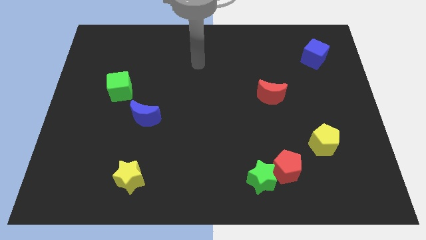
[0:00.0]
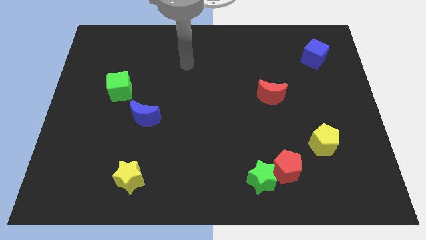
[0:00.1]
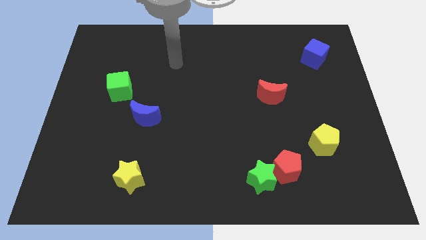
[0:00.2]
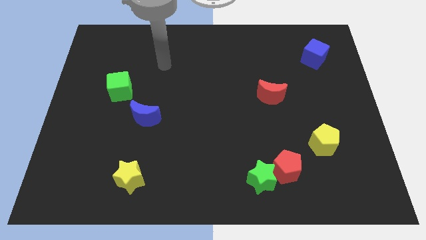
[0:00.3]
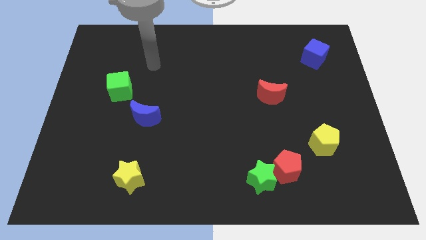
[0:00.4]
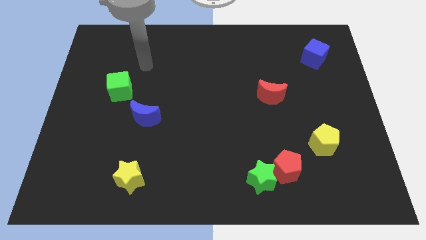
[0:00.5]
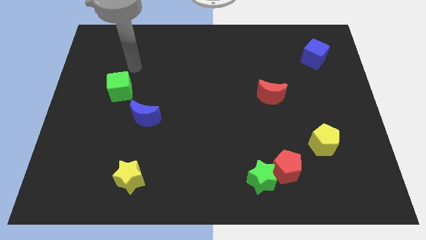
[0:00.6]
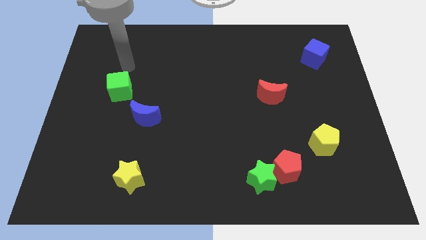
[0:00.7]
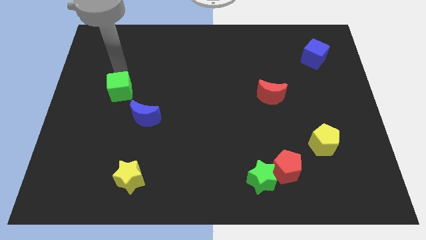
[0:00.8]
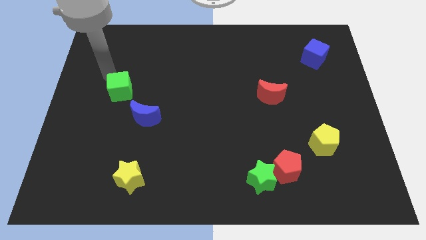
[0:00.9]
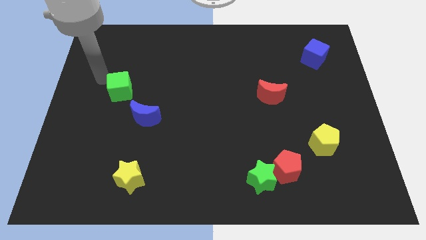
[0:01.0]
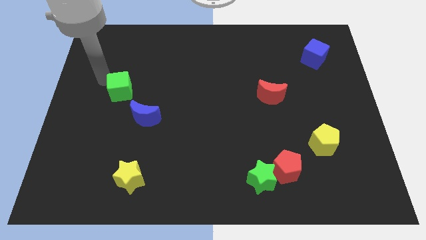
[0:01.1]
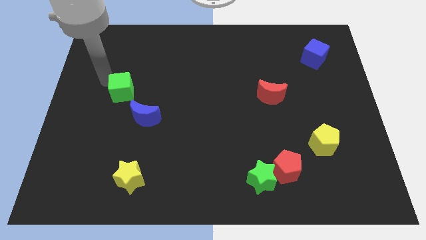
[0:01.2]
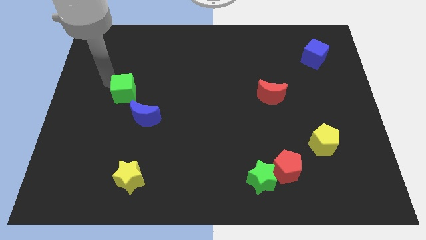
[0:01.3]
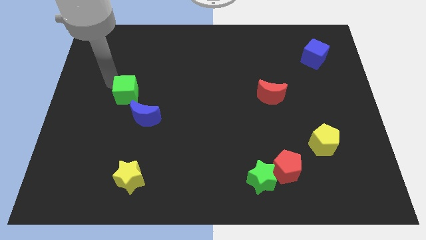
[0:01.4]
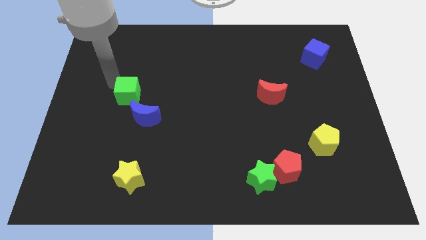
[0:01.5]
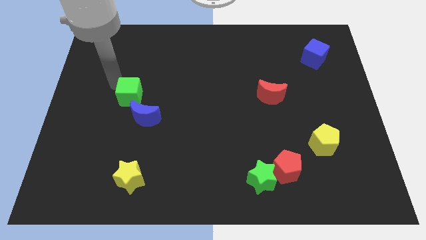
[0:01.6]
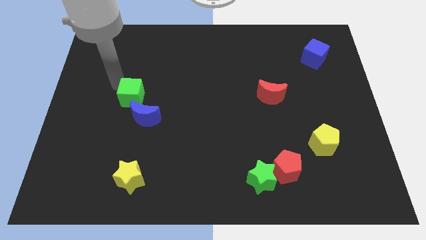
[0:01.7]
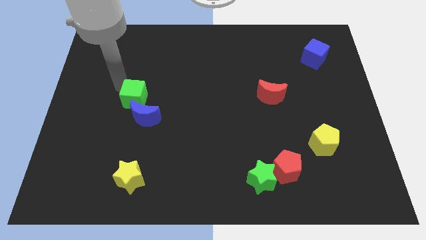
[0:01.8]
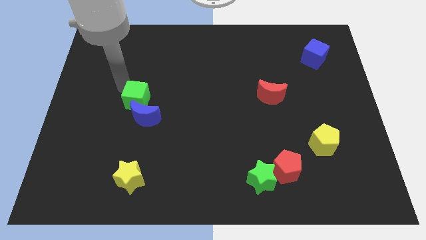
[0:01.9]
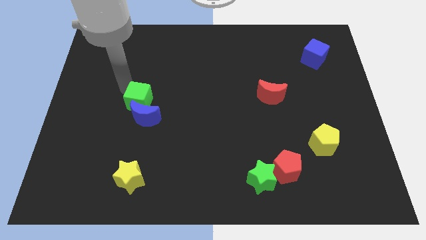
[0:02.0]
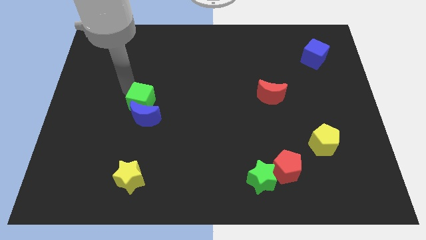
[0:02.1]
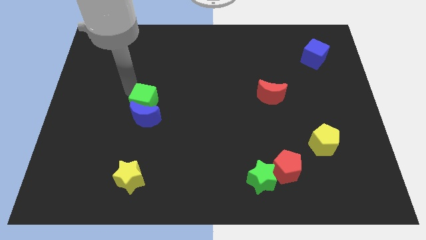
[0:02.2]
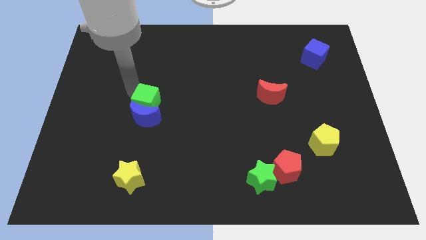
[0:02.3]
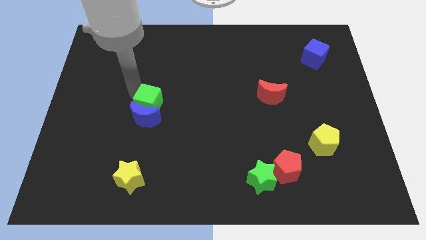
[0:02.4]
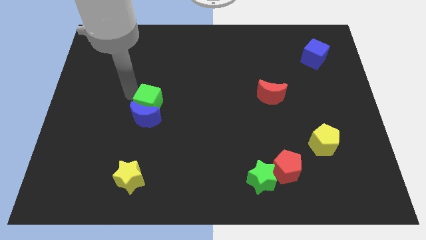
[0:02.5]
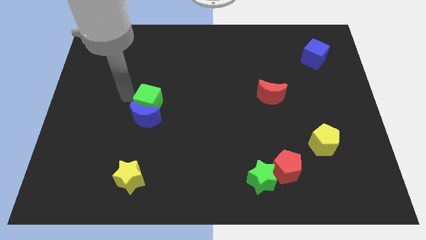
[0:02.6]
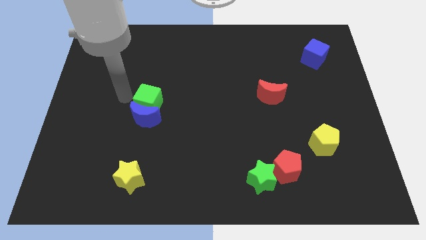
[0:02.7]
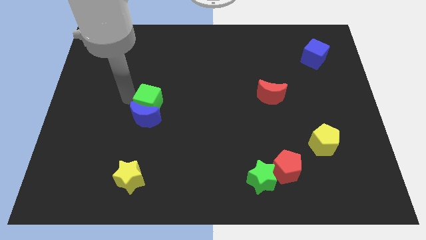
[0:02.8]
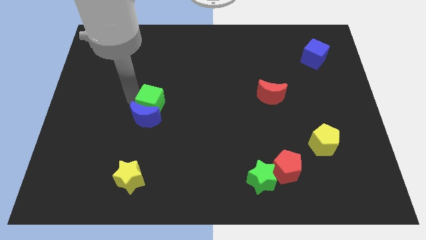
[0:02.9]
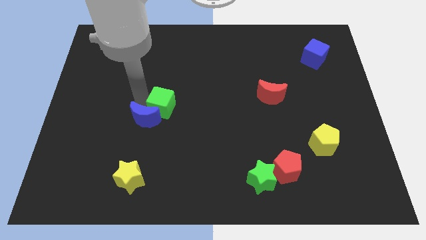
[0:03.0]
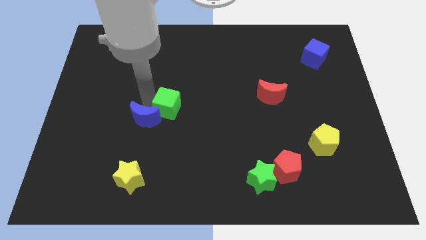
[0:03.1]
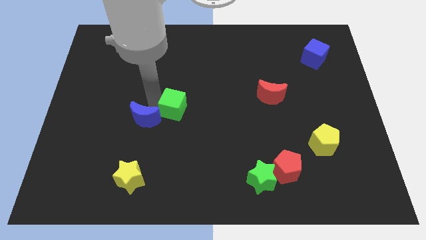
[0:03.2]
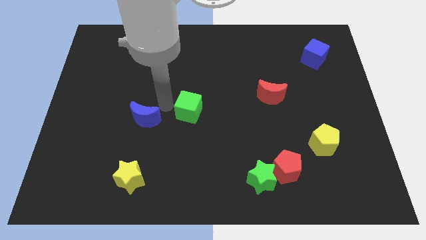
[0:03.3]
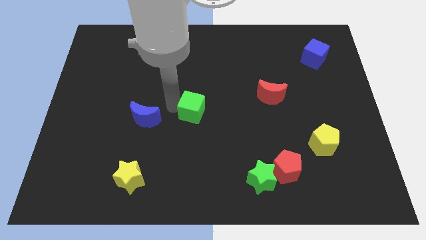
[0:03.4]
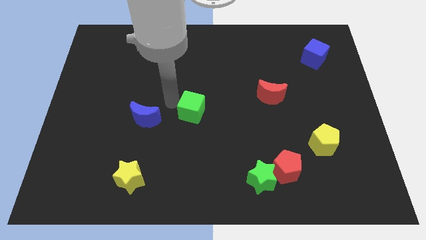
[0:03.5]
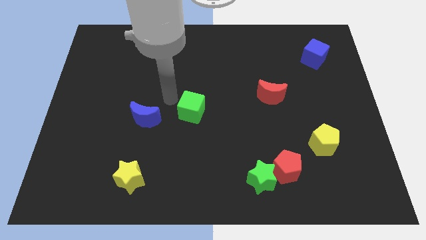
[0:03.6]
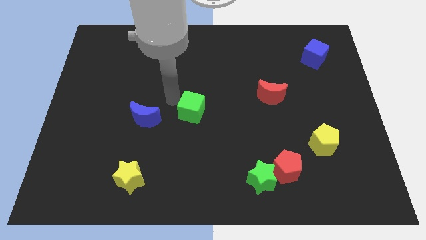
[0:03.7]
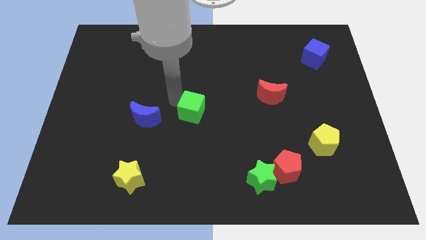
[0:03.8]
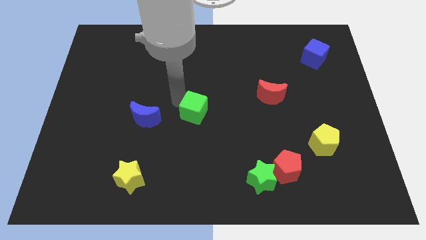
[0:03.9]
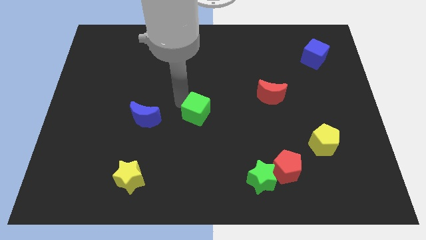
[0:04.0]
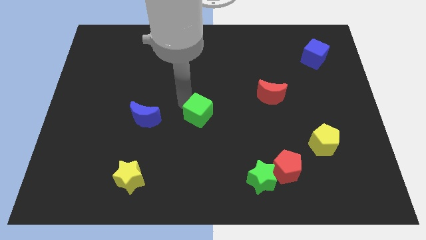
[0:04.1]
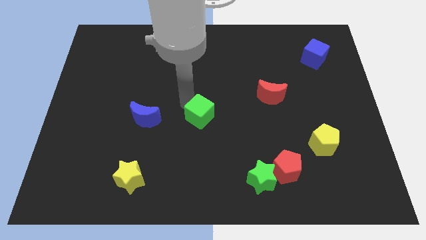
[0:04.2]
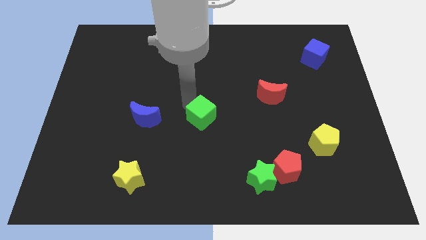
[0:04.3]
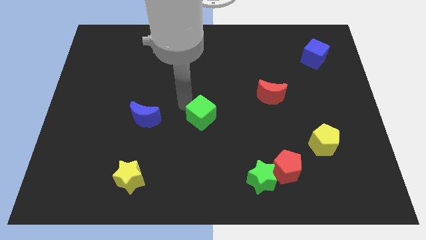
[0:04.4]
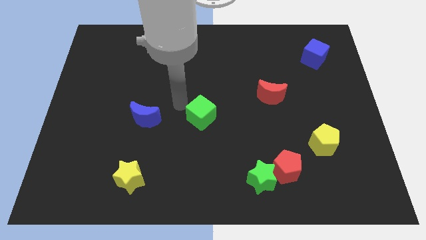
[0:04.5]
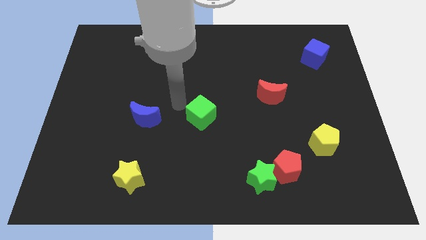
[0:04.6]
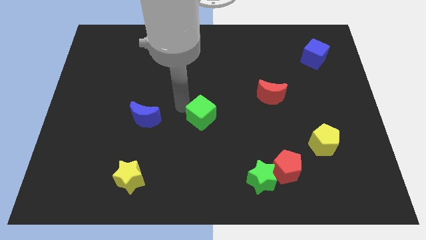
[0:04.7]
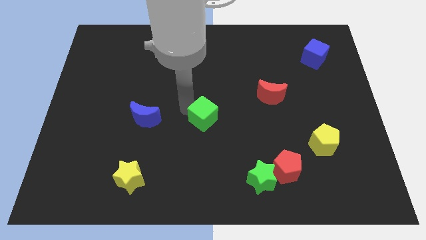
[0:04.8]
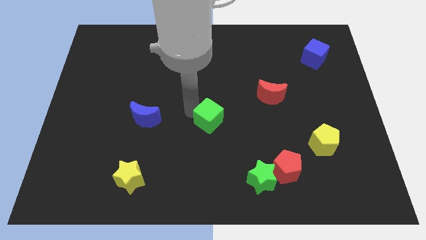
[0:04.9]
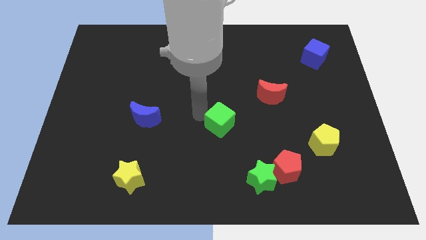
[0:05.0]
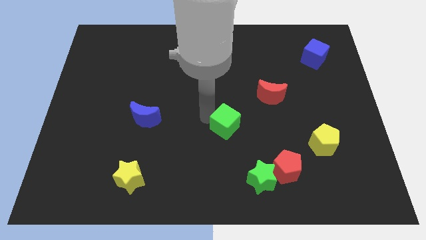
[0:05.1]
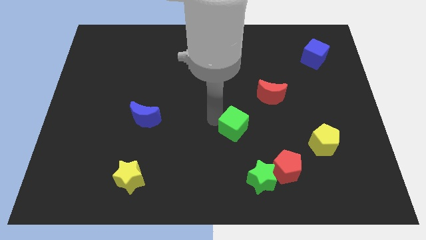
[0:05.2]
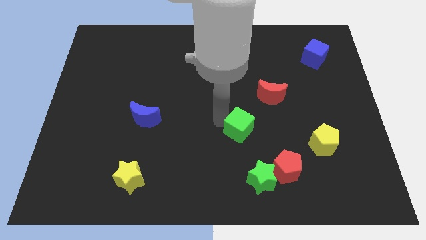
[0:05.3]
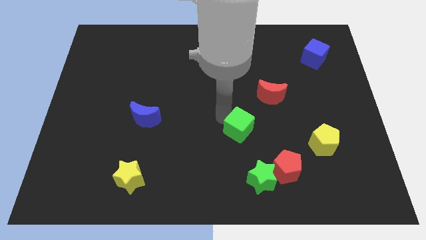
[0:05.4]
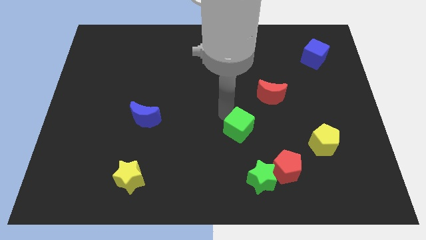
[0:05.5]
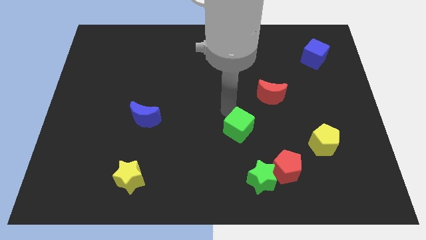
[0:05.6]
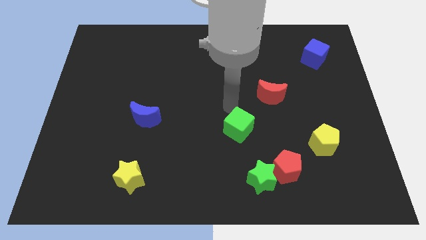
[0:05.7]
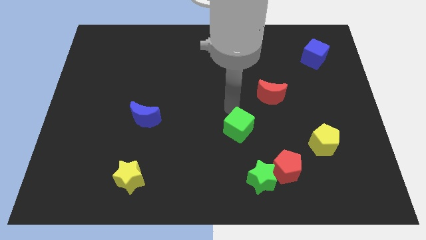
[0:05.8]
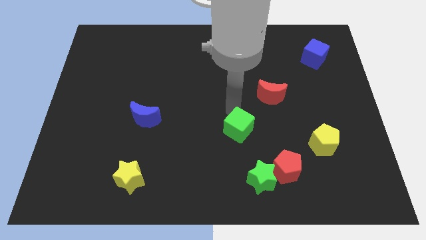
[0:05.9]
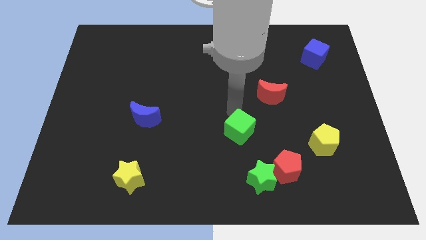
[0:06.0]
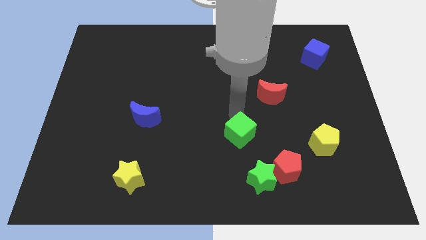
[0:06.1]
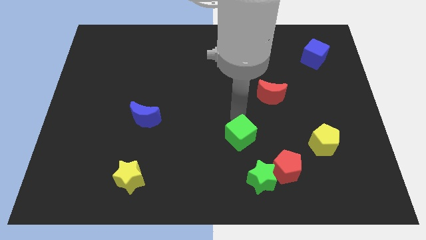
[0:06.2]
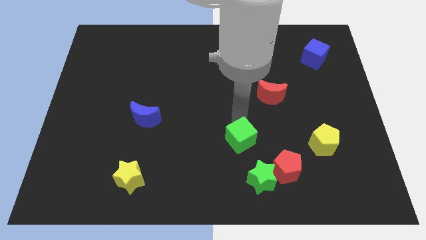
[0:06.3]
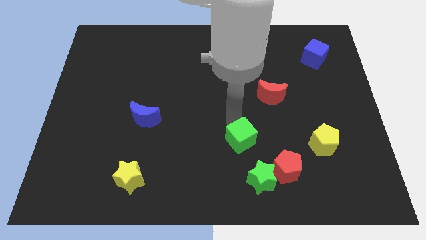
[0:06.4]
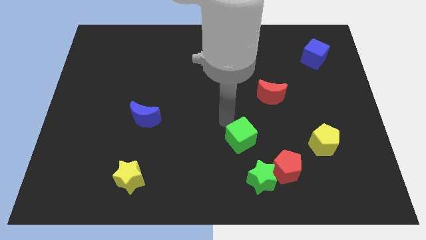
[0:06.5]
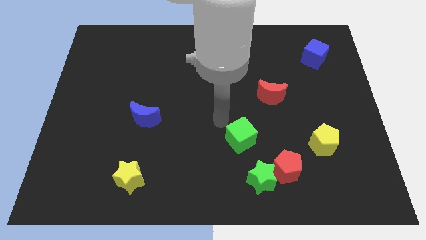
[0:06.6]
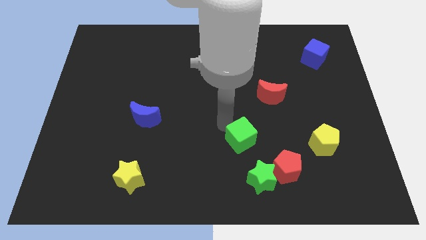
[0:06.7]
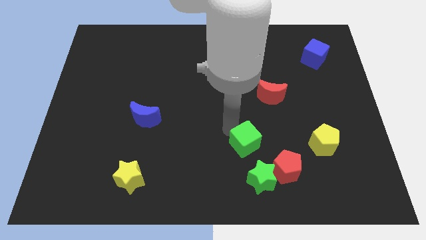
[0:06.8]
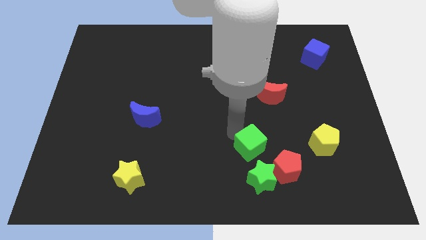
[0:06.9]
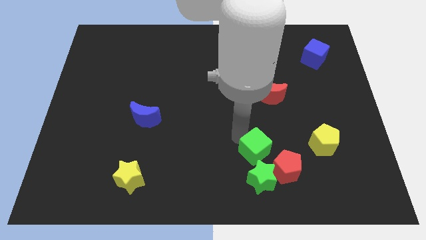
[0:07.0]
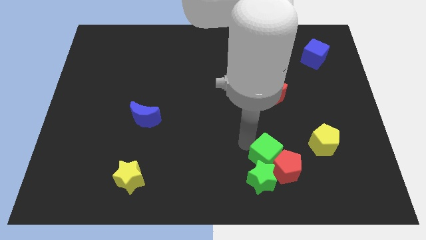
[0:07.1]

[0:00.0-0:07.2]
push the green cube towards the red pentagon
